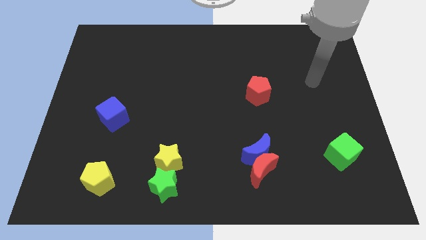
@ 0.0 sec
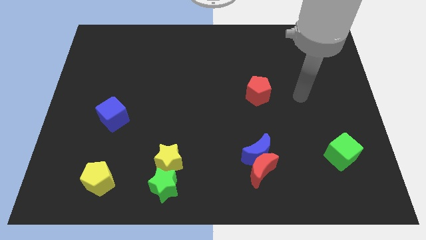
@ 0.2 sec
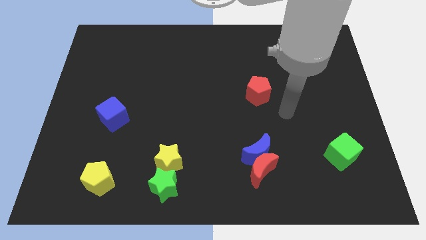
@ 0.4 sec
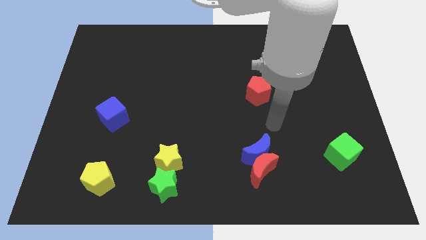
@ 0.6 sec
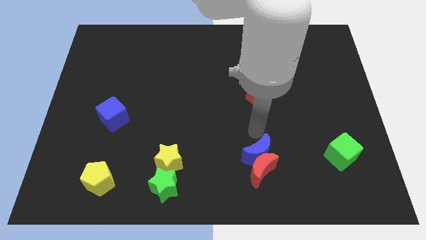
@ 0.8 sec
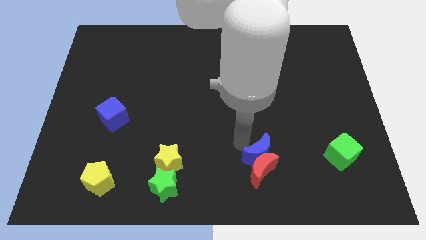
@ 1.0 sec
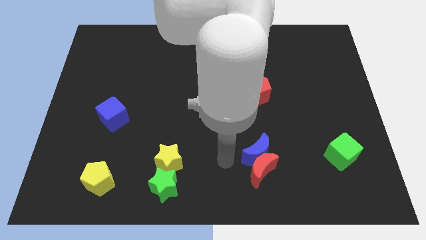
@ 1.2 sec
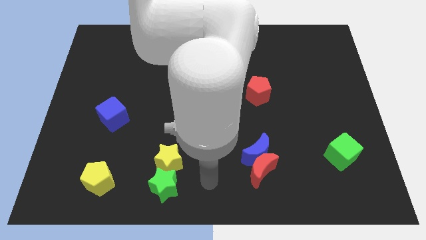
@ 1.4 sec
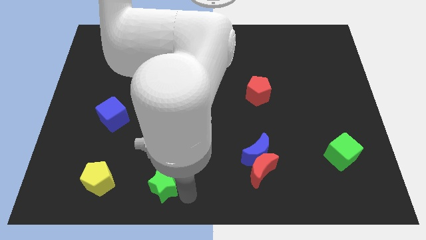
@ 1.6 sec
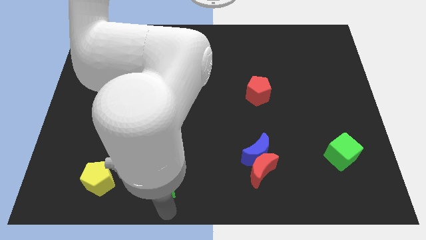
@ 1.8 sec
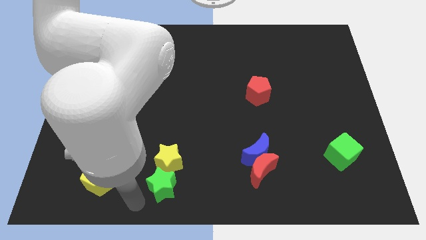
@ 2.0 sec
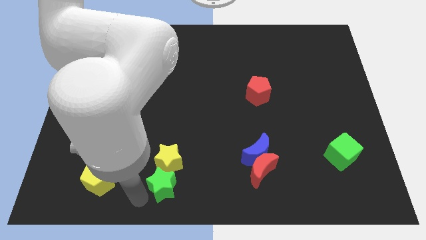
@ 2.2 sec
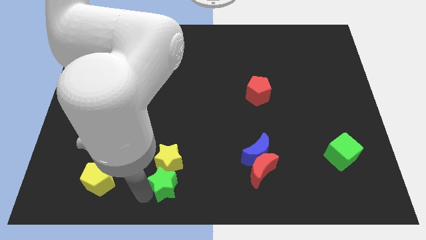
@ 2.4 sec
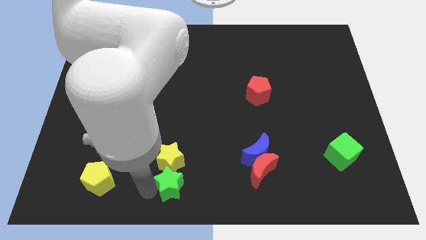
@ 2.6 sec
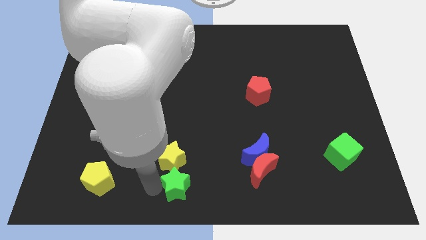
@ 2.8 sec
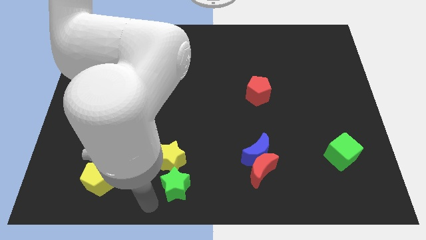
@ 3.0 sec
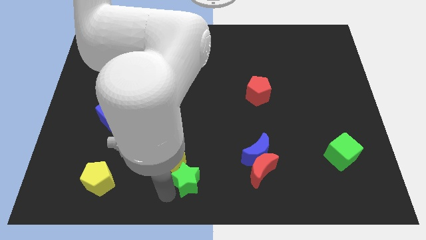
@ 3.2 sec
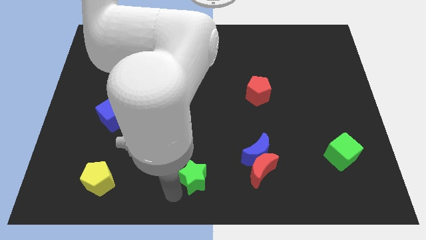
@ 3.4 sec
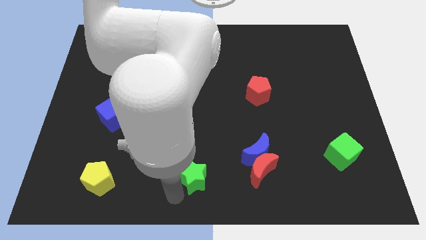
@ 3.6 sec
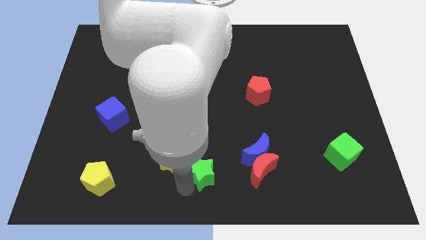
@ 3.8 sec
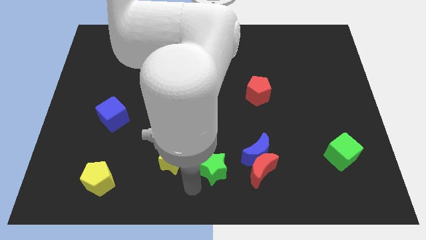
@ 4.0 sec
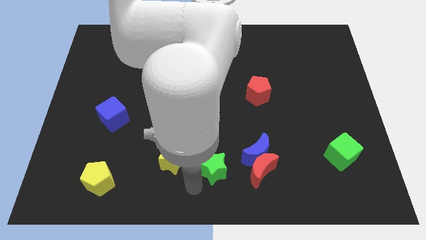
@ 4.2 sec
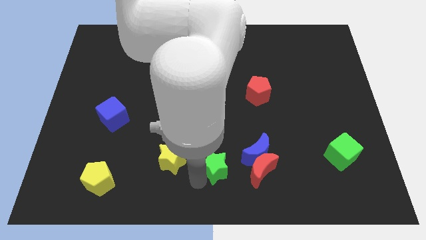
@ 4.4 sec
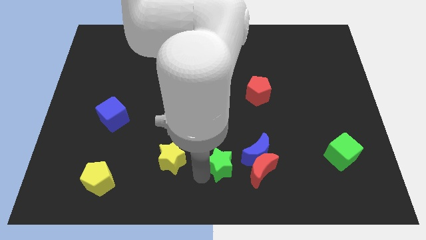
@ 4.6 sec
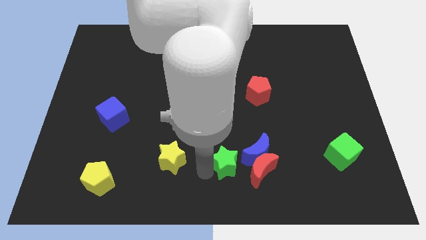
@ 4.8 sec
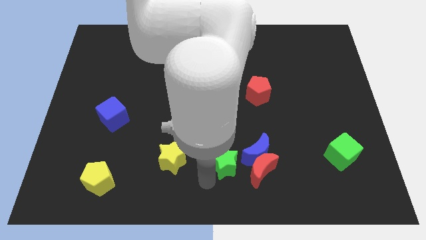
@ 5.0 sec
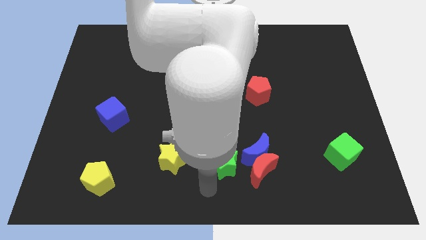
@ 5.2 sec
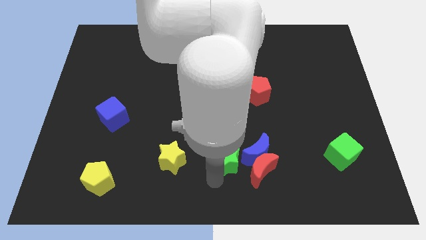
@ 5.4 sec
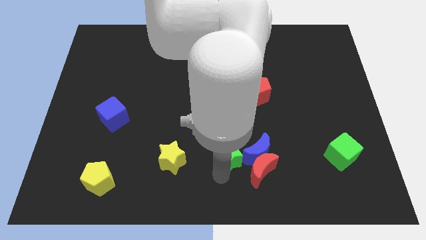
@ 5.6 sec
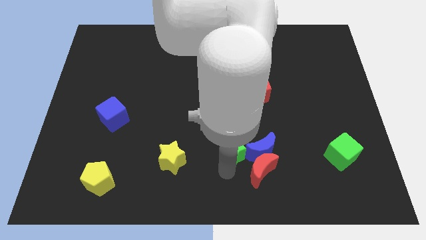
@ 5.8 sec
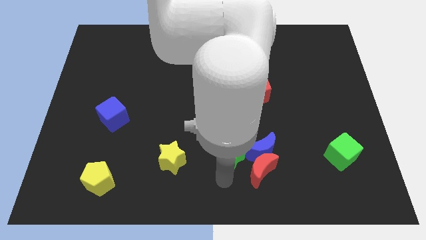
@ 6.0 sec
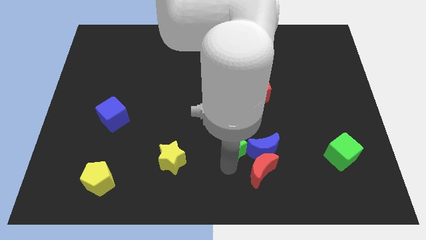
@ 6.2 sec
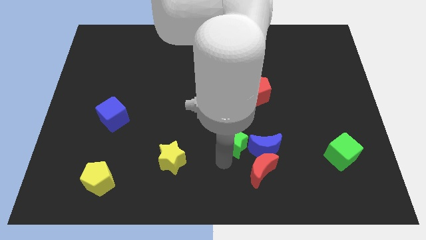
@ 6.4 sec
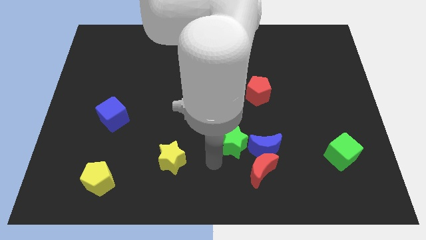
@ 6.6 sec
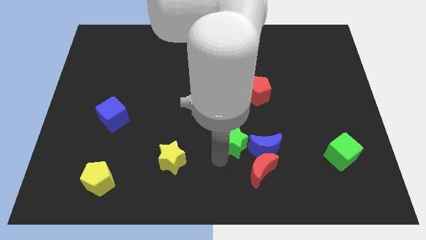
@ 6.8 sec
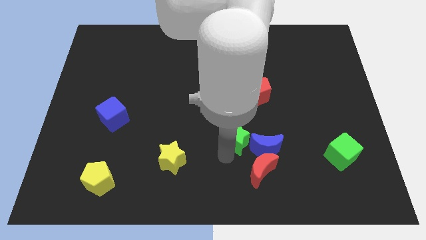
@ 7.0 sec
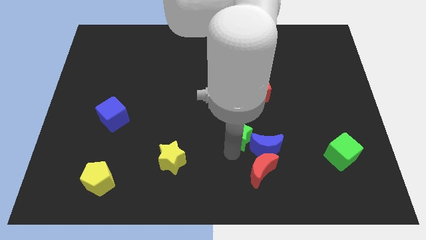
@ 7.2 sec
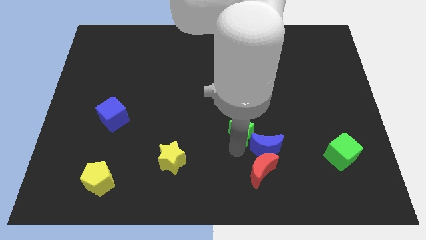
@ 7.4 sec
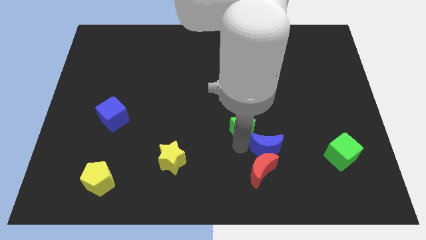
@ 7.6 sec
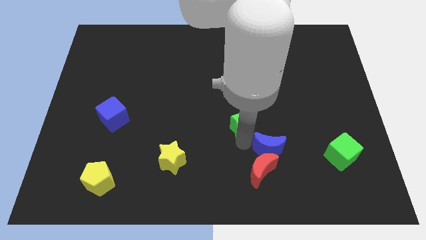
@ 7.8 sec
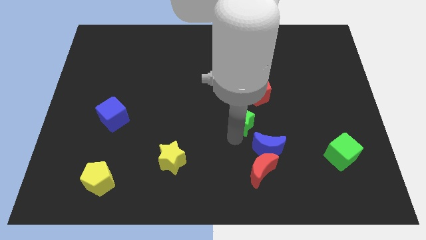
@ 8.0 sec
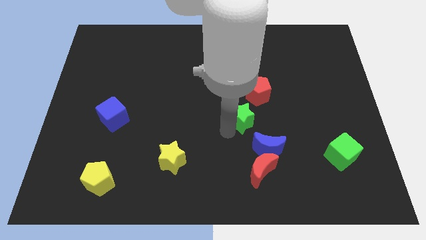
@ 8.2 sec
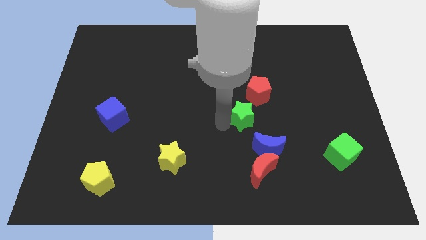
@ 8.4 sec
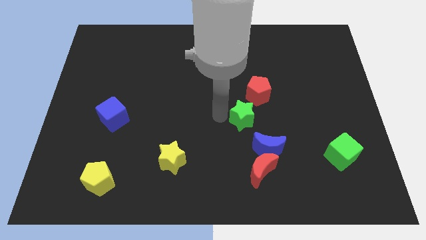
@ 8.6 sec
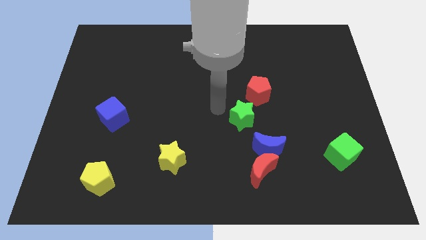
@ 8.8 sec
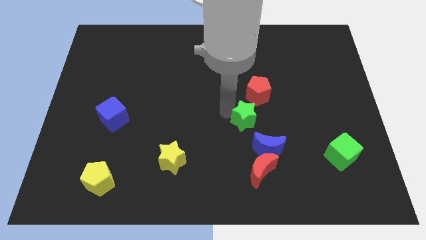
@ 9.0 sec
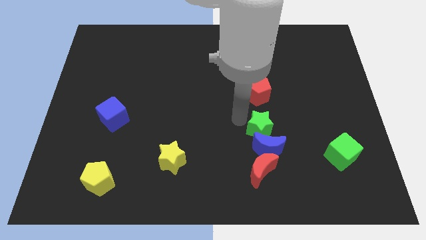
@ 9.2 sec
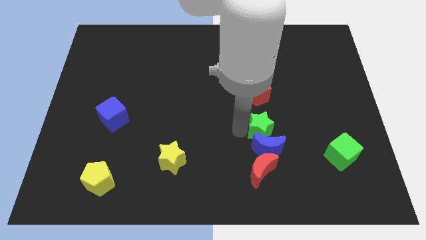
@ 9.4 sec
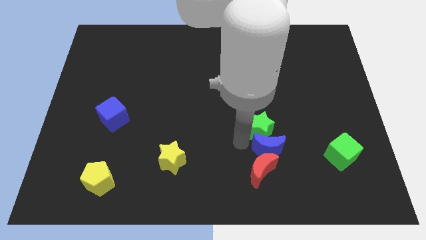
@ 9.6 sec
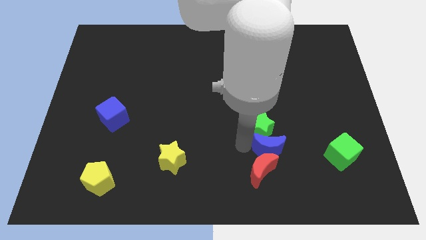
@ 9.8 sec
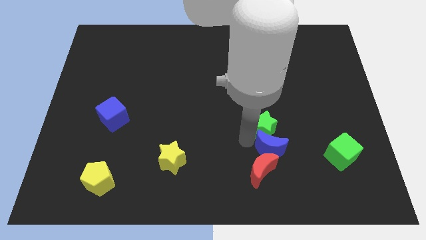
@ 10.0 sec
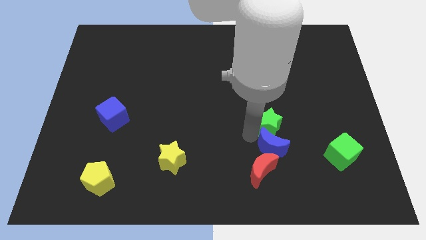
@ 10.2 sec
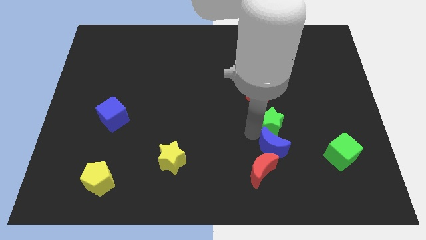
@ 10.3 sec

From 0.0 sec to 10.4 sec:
push the green star diagonally down and to the right of the red pentagon

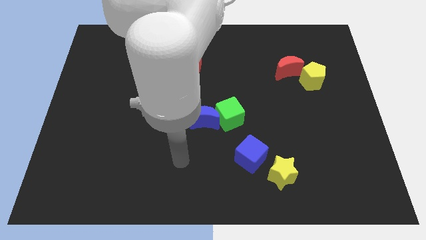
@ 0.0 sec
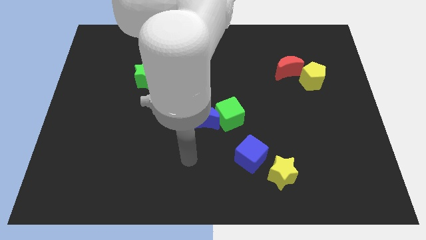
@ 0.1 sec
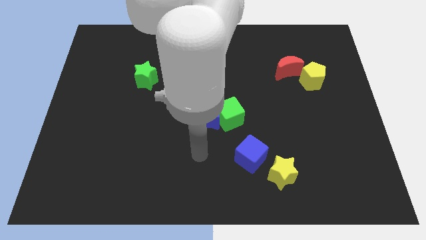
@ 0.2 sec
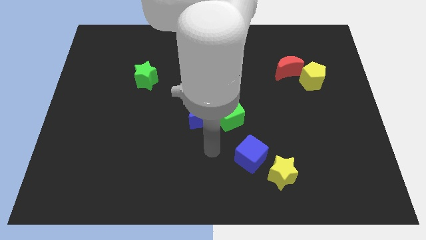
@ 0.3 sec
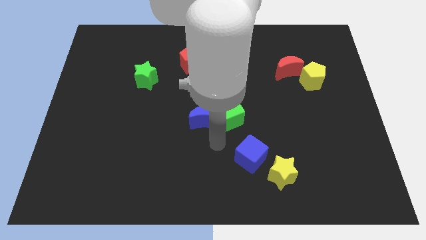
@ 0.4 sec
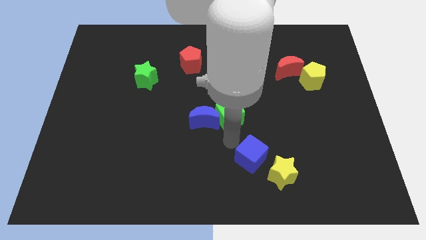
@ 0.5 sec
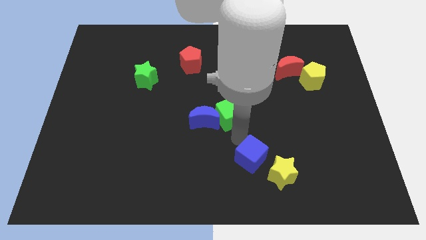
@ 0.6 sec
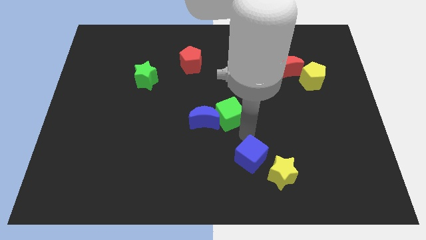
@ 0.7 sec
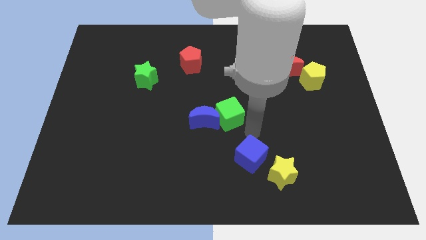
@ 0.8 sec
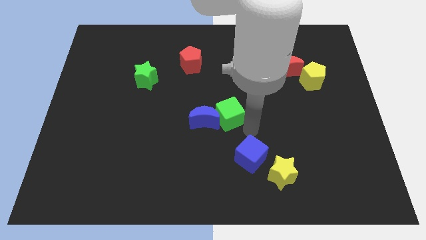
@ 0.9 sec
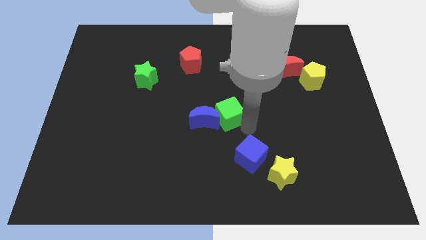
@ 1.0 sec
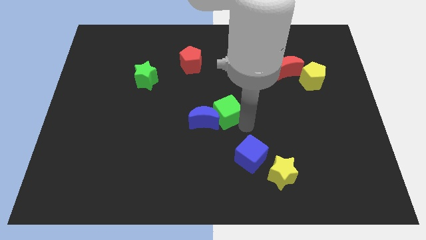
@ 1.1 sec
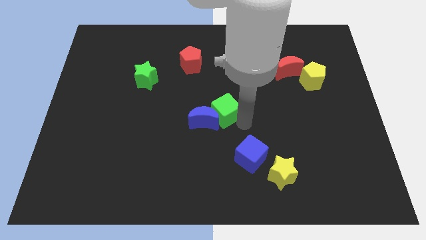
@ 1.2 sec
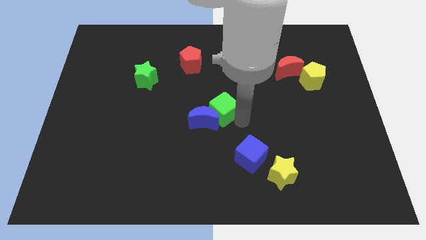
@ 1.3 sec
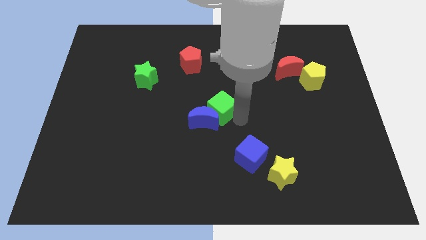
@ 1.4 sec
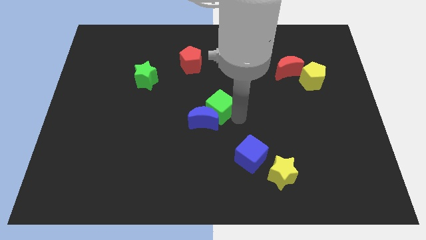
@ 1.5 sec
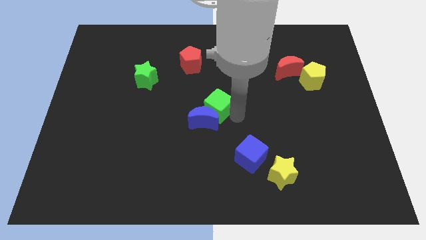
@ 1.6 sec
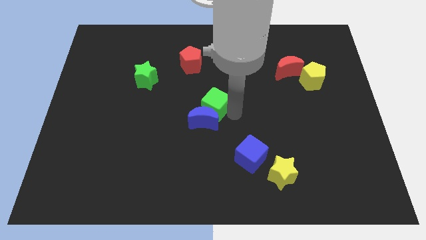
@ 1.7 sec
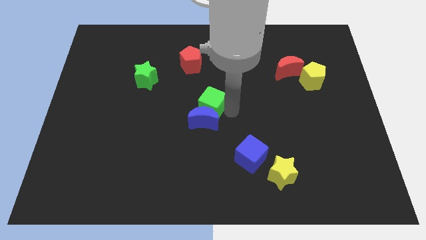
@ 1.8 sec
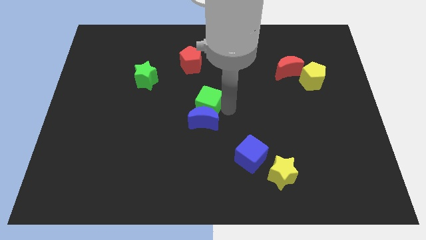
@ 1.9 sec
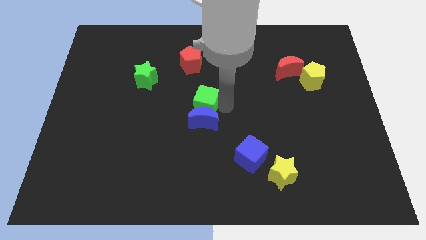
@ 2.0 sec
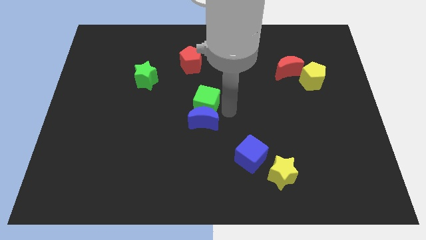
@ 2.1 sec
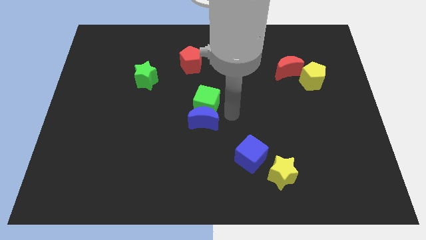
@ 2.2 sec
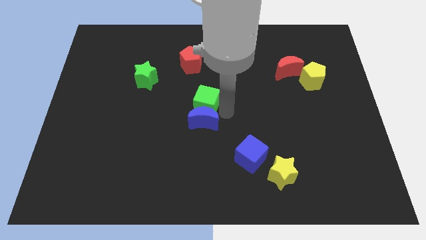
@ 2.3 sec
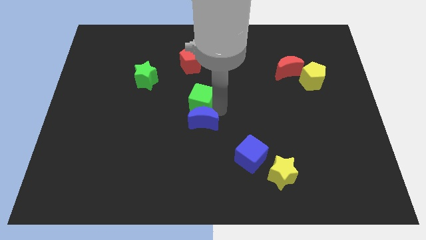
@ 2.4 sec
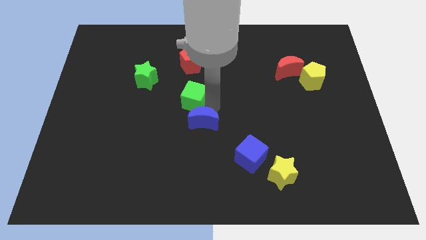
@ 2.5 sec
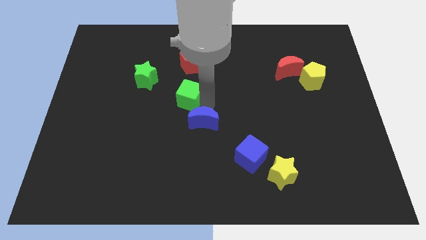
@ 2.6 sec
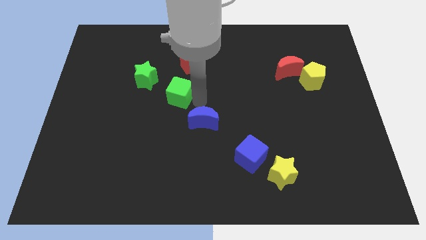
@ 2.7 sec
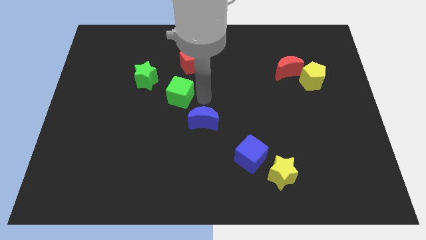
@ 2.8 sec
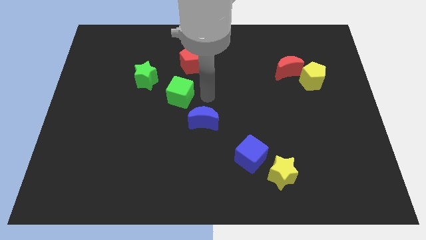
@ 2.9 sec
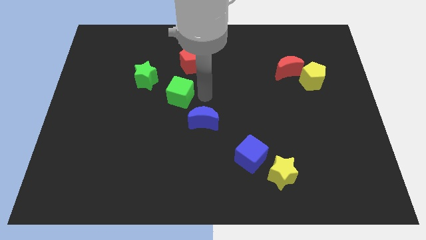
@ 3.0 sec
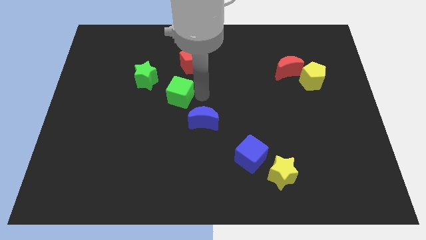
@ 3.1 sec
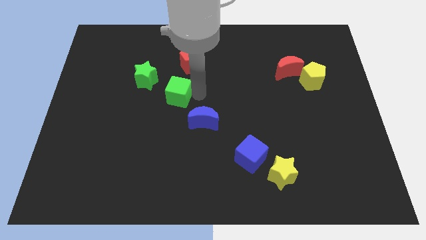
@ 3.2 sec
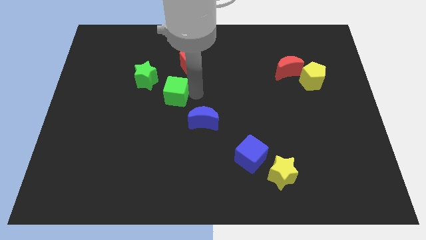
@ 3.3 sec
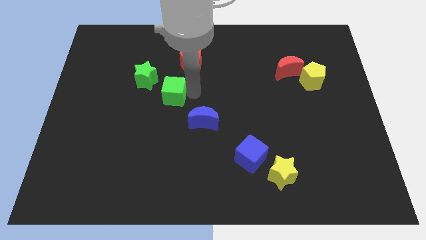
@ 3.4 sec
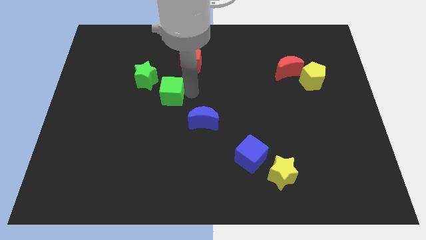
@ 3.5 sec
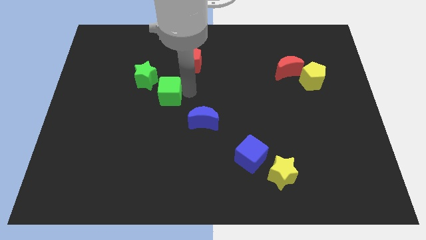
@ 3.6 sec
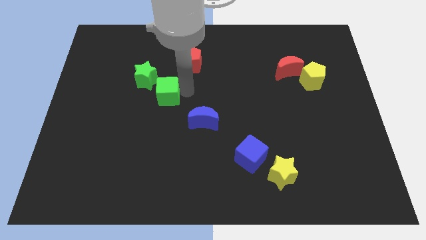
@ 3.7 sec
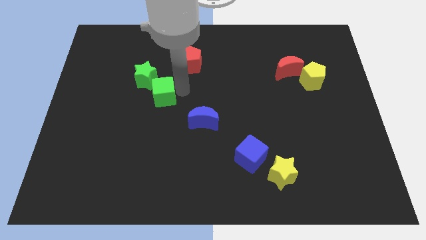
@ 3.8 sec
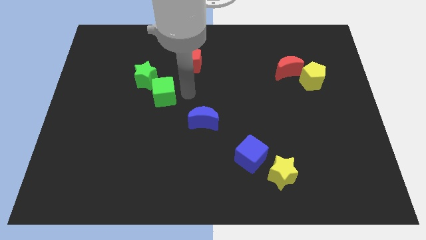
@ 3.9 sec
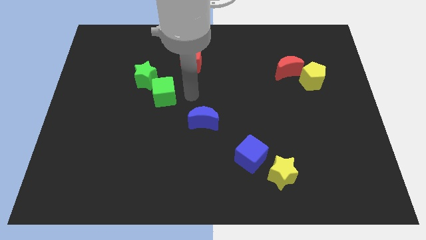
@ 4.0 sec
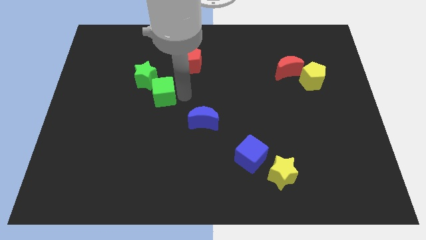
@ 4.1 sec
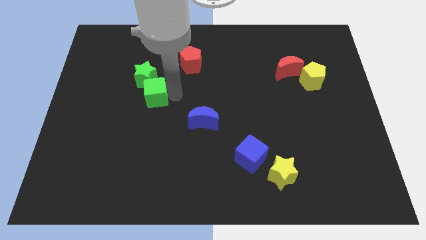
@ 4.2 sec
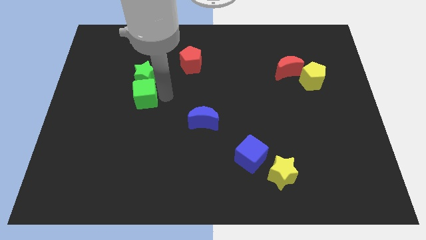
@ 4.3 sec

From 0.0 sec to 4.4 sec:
slide the green cube to the bottom left side of the green star
